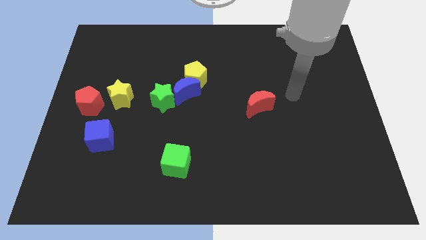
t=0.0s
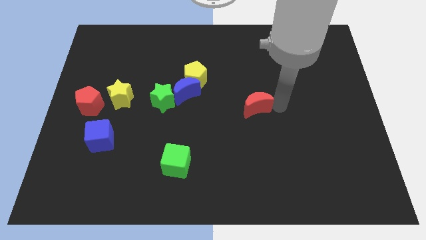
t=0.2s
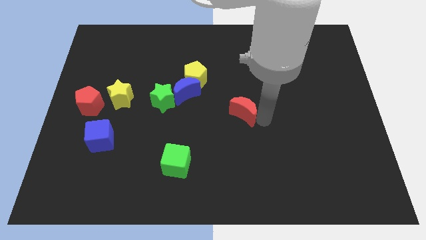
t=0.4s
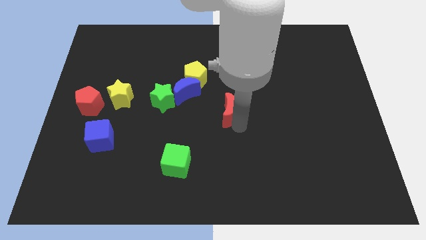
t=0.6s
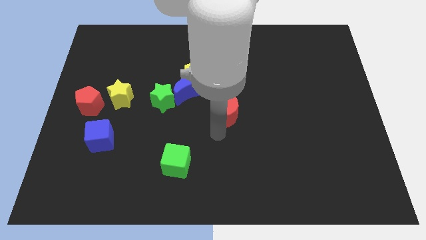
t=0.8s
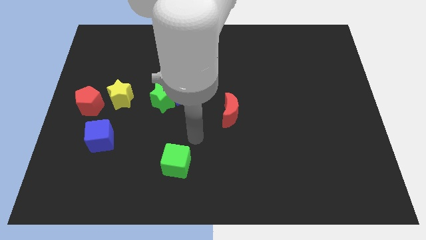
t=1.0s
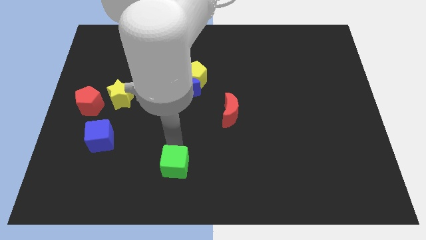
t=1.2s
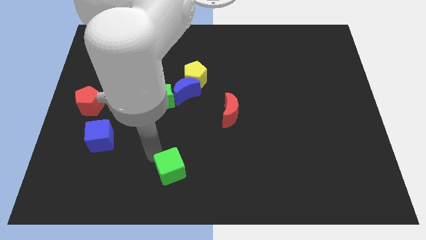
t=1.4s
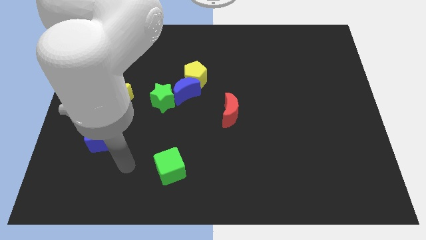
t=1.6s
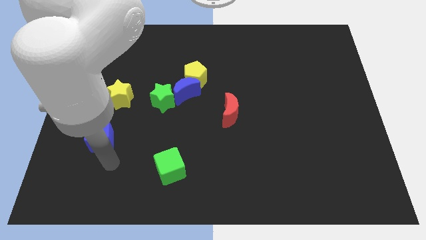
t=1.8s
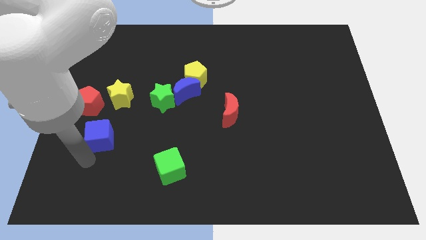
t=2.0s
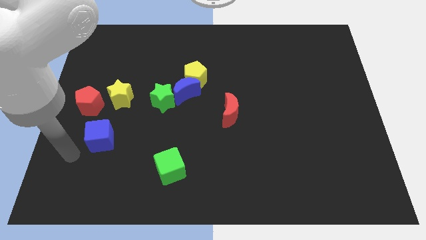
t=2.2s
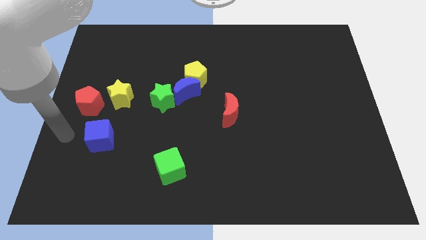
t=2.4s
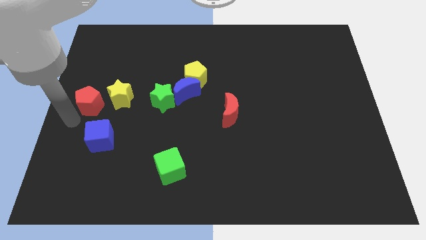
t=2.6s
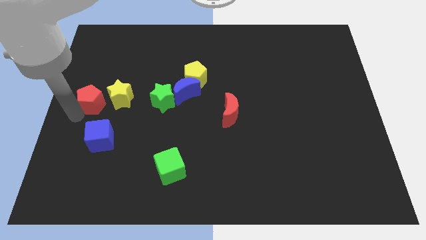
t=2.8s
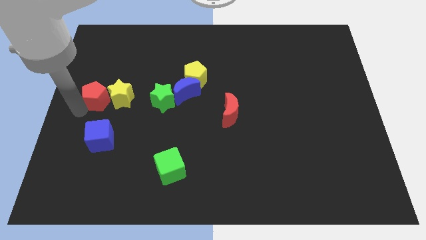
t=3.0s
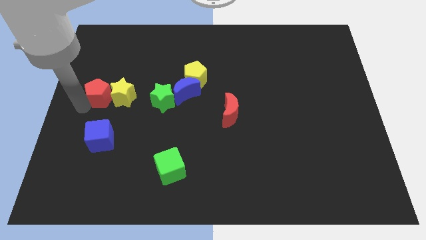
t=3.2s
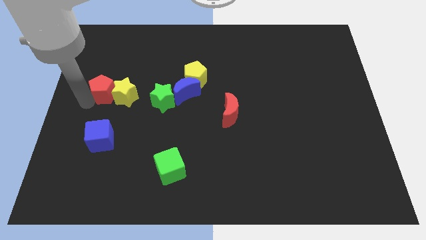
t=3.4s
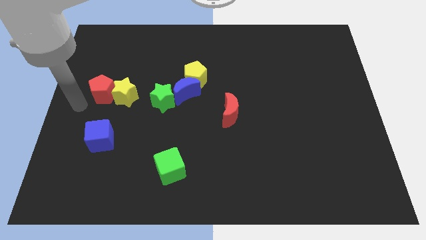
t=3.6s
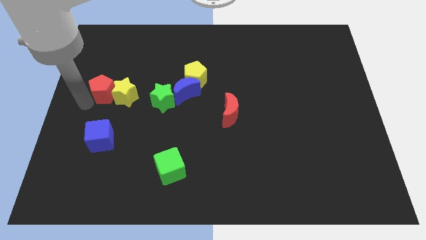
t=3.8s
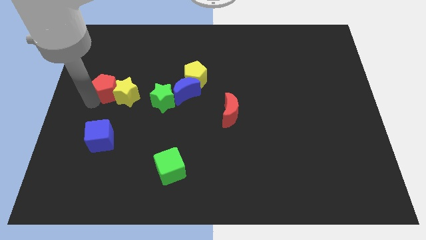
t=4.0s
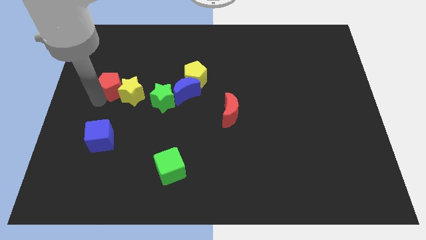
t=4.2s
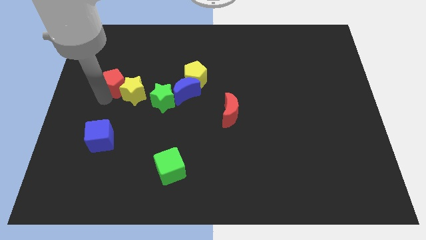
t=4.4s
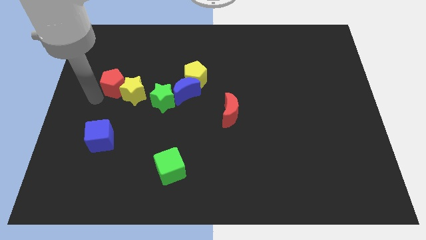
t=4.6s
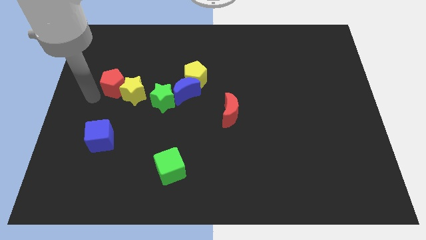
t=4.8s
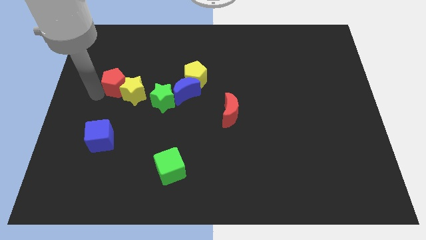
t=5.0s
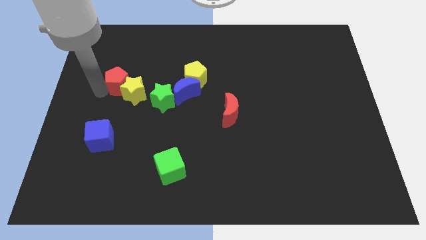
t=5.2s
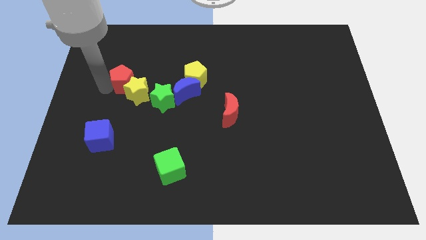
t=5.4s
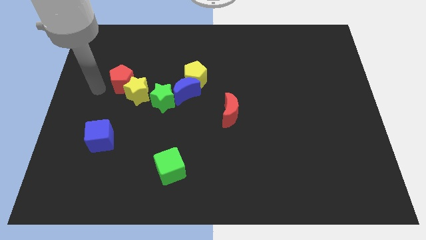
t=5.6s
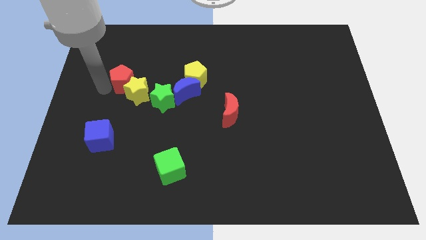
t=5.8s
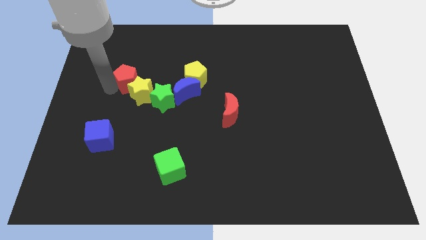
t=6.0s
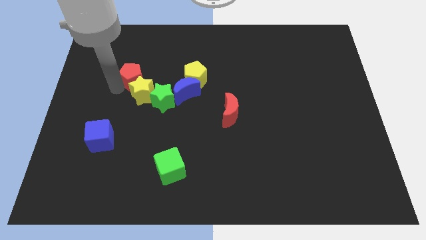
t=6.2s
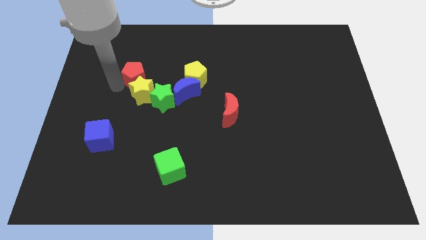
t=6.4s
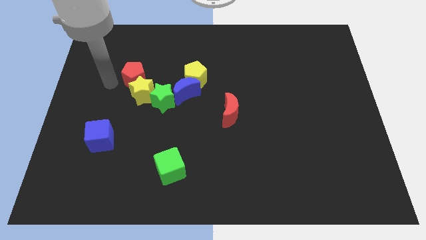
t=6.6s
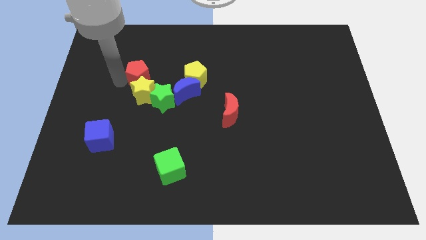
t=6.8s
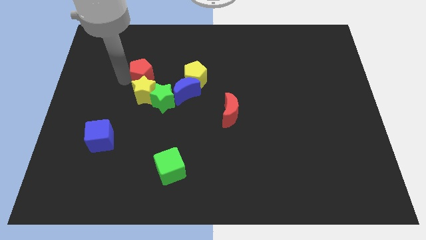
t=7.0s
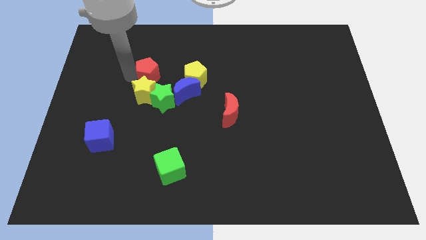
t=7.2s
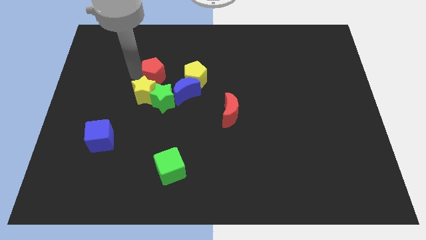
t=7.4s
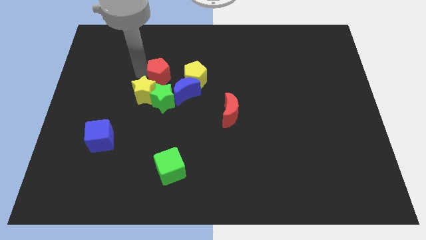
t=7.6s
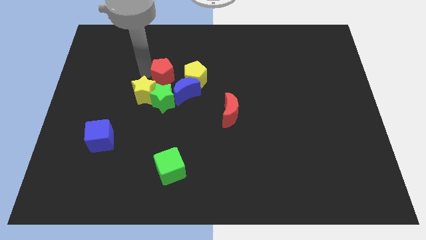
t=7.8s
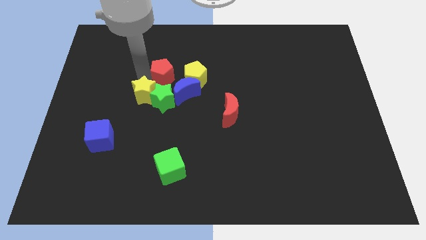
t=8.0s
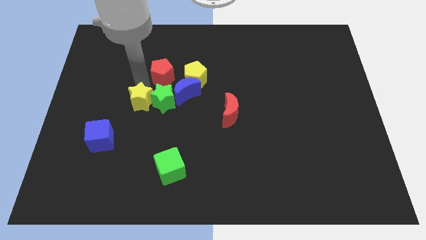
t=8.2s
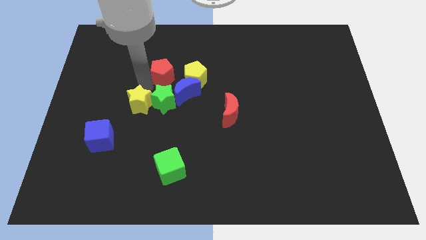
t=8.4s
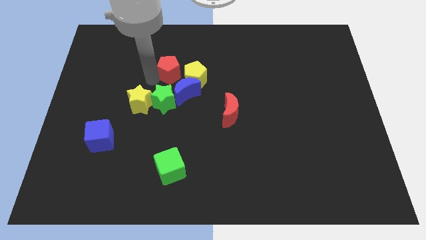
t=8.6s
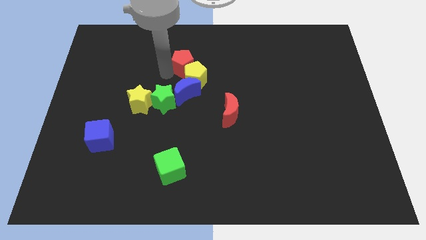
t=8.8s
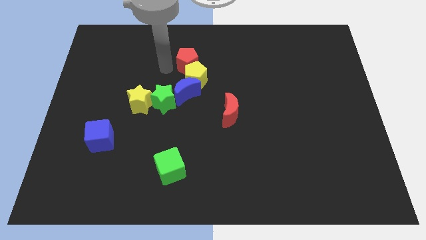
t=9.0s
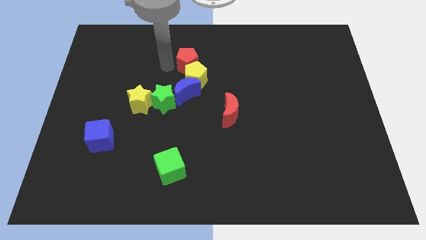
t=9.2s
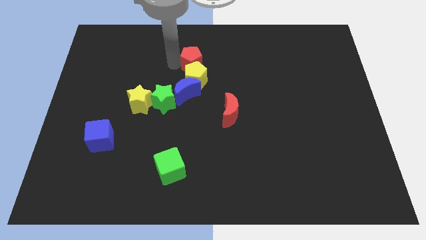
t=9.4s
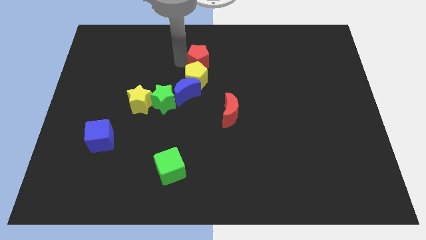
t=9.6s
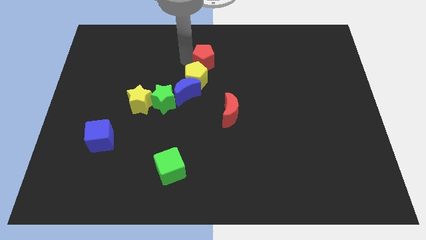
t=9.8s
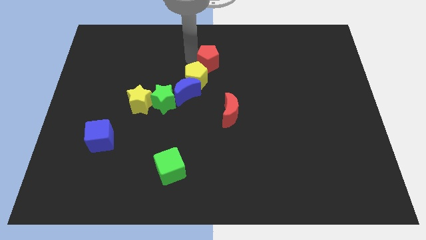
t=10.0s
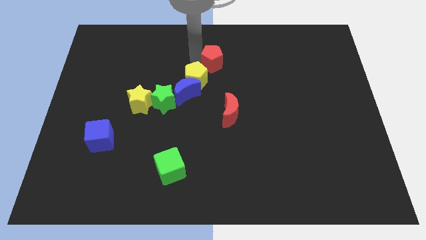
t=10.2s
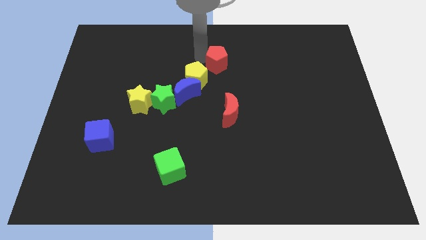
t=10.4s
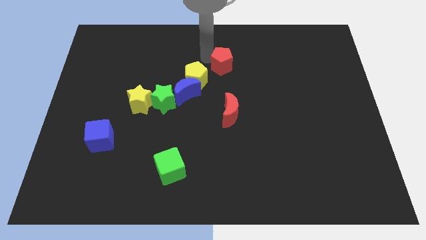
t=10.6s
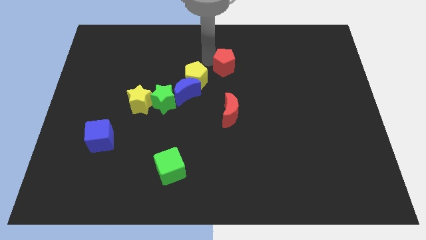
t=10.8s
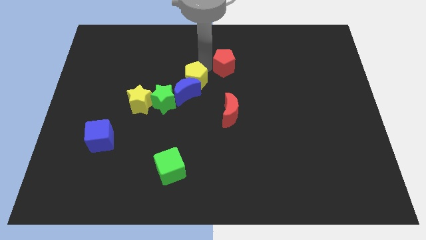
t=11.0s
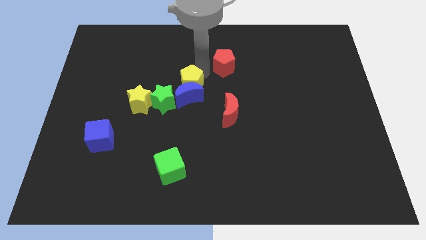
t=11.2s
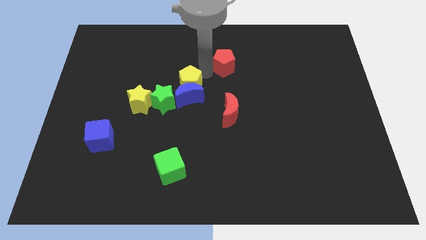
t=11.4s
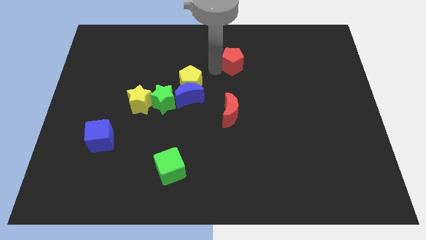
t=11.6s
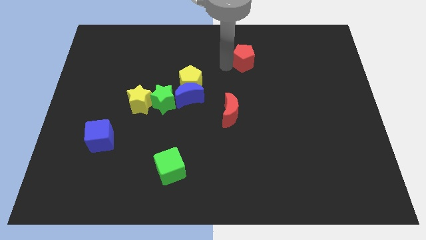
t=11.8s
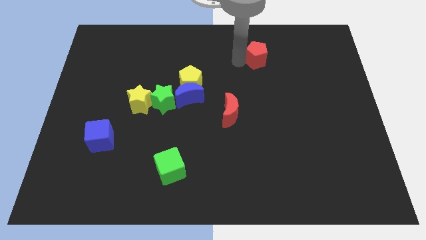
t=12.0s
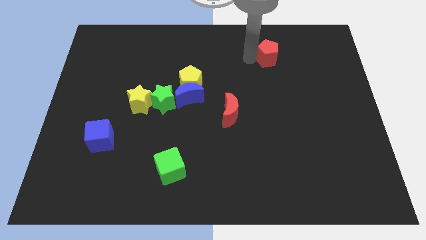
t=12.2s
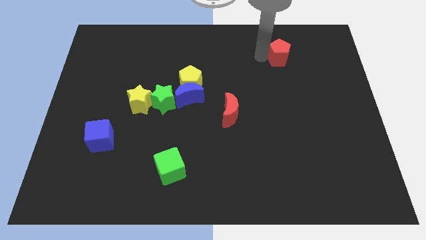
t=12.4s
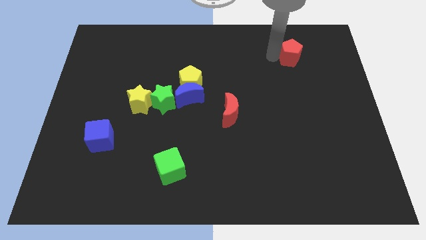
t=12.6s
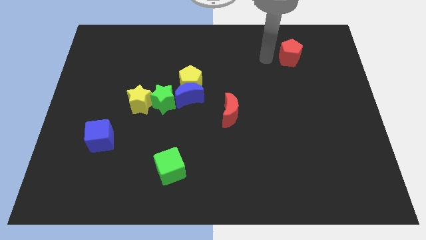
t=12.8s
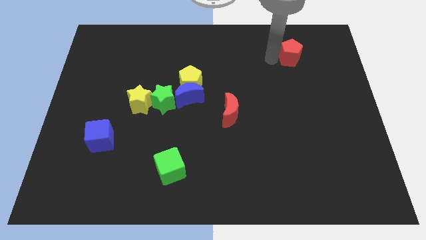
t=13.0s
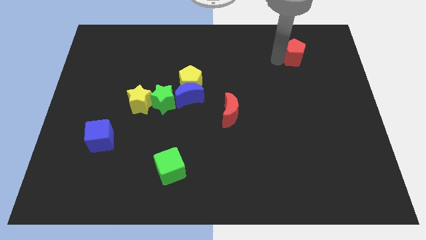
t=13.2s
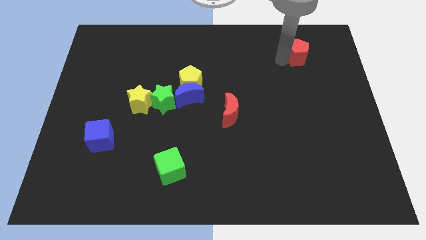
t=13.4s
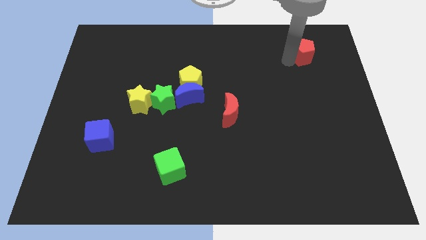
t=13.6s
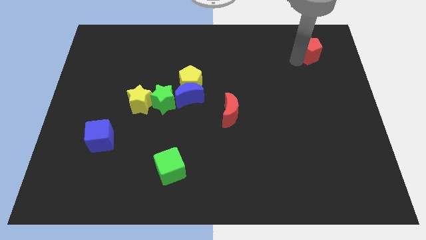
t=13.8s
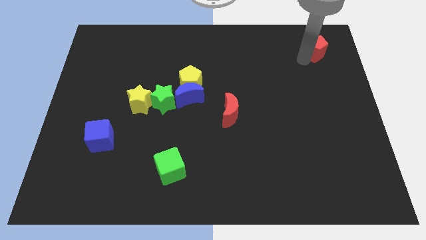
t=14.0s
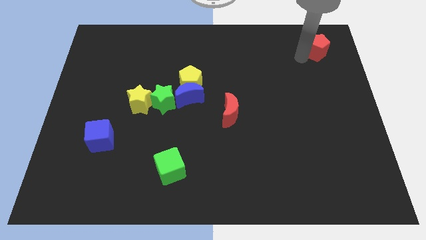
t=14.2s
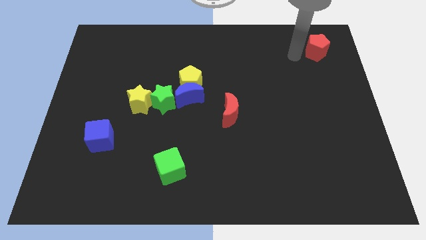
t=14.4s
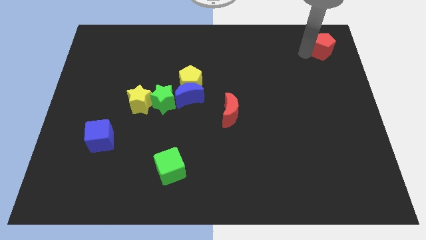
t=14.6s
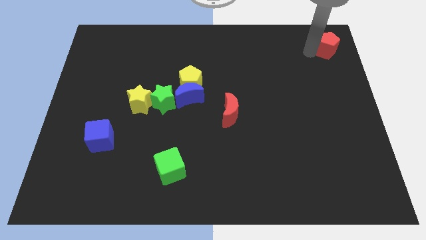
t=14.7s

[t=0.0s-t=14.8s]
push the red pentagon to the upper right corner
